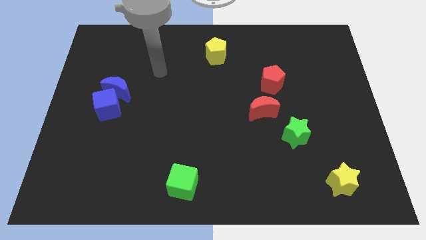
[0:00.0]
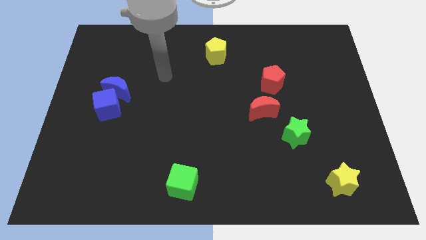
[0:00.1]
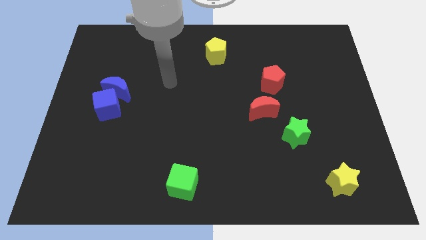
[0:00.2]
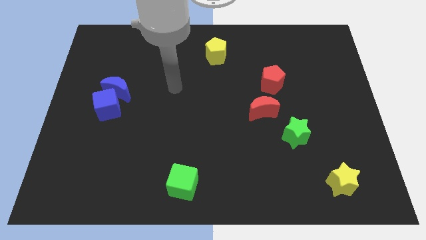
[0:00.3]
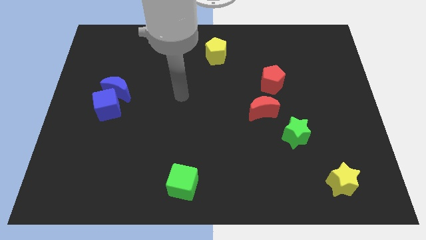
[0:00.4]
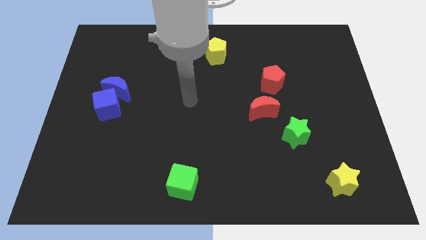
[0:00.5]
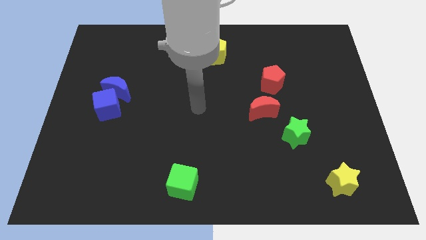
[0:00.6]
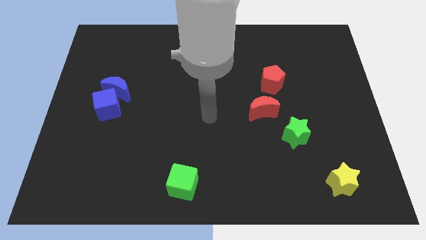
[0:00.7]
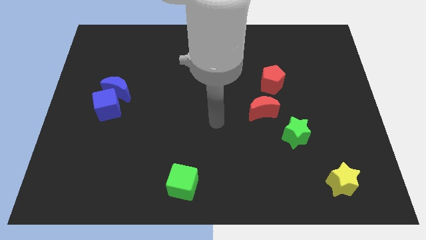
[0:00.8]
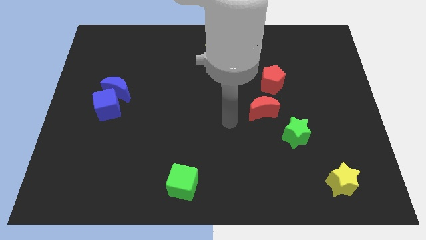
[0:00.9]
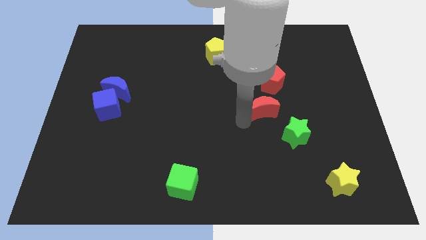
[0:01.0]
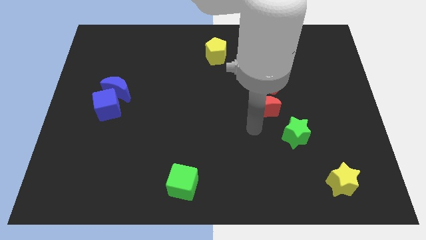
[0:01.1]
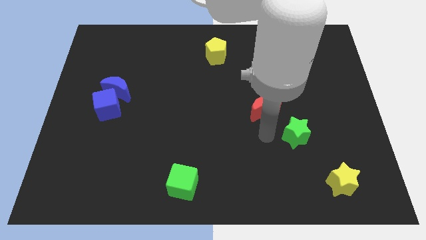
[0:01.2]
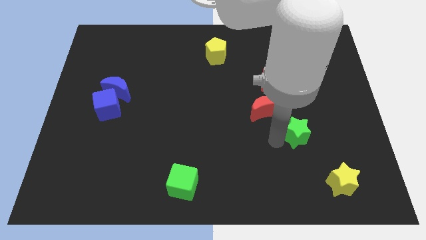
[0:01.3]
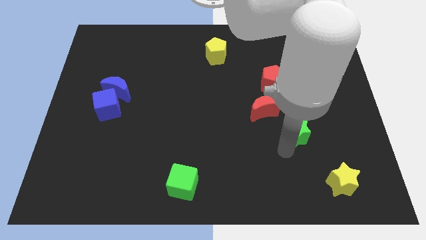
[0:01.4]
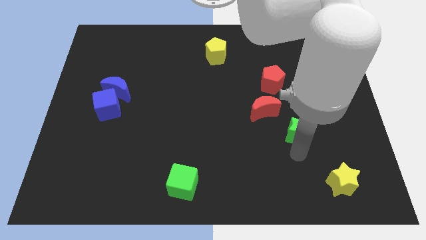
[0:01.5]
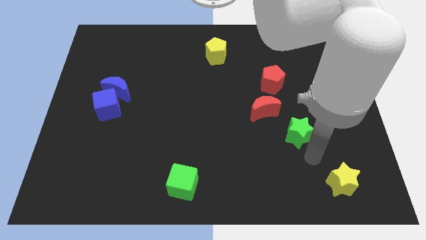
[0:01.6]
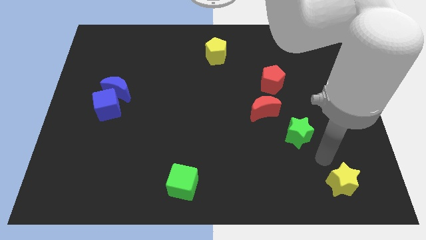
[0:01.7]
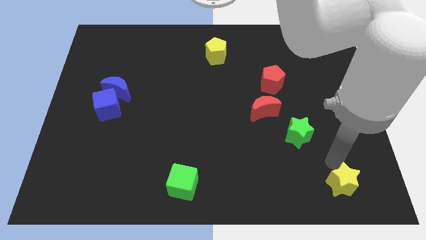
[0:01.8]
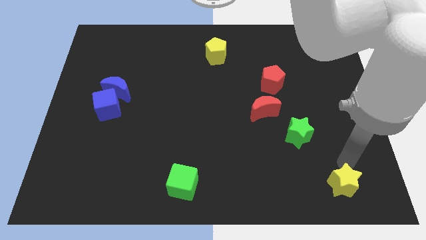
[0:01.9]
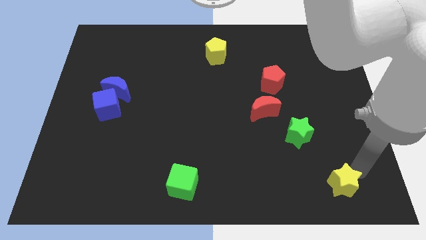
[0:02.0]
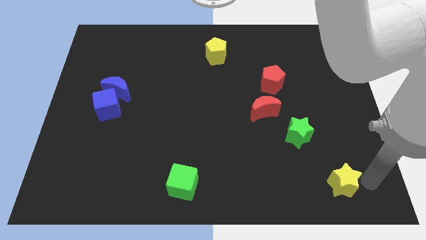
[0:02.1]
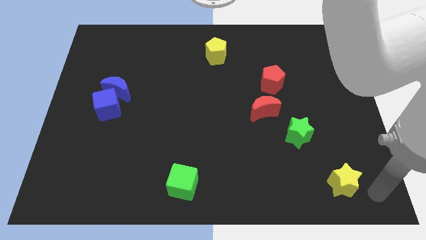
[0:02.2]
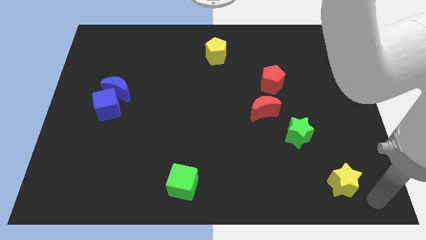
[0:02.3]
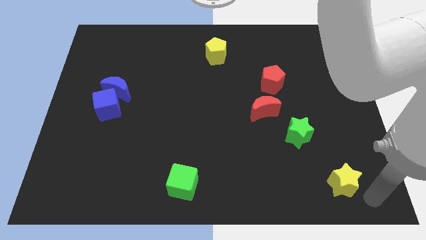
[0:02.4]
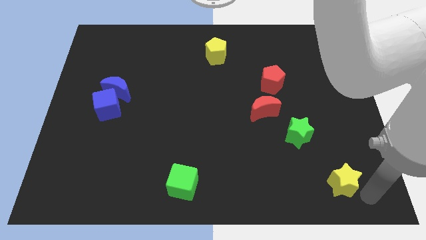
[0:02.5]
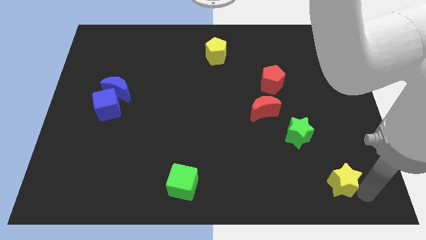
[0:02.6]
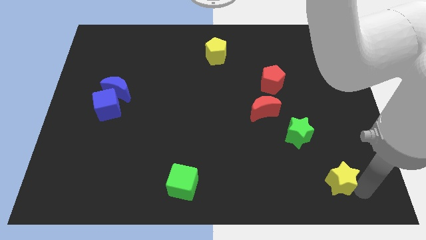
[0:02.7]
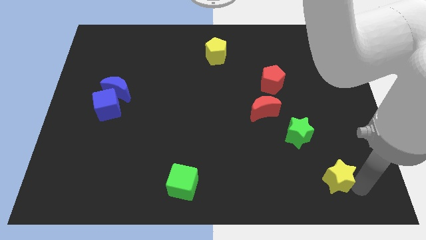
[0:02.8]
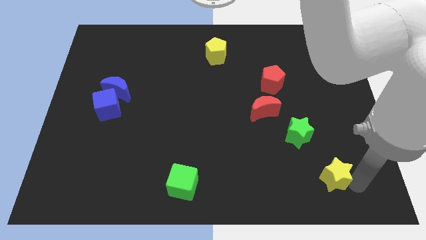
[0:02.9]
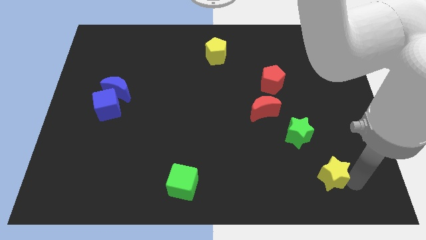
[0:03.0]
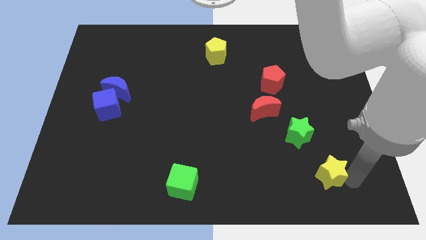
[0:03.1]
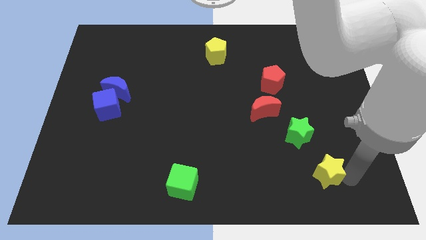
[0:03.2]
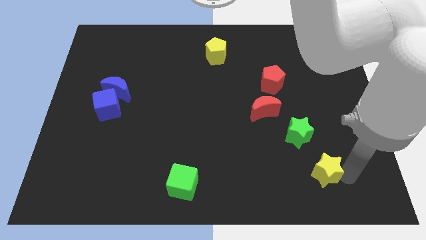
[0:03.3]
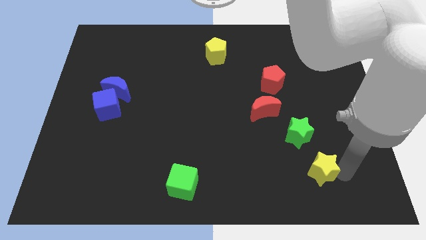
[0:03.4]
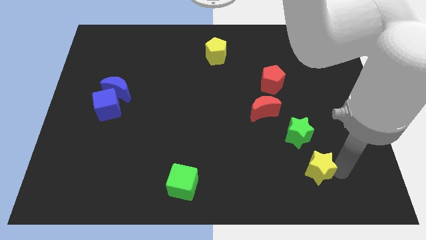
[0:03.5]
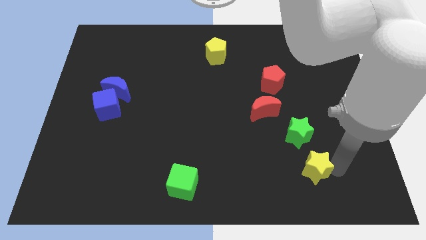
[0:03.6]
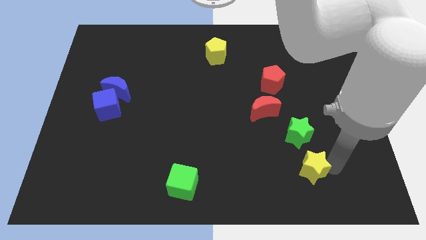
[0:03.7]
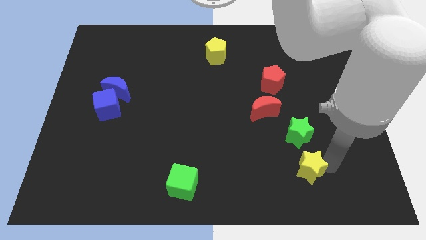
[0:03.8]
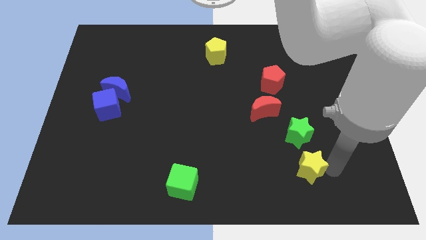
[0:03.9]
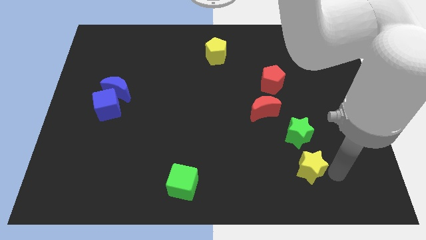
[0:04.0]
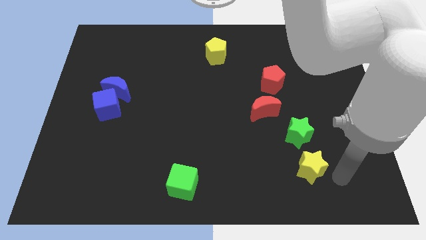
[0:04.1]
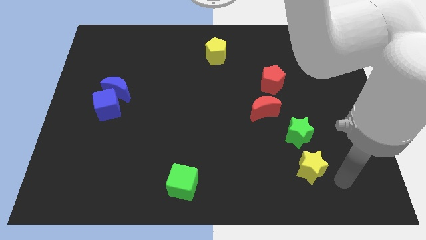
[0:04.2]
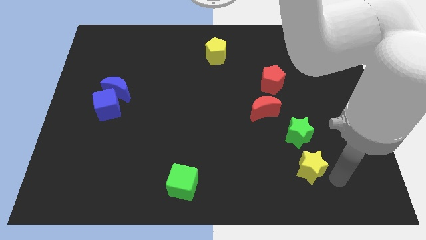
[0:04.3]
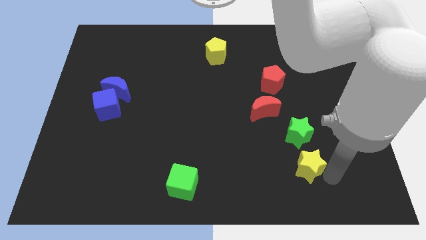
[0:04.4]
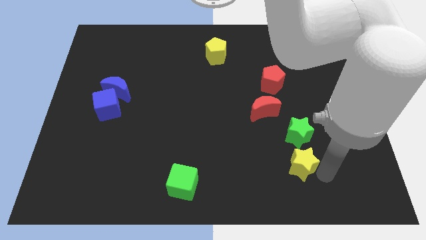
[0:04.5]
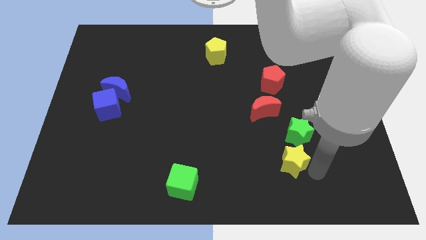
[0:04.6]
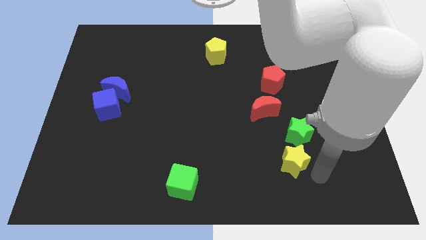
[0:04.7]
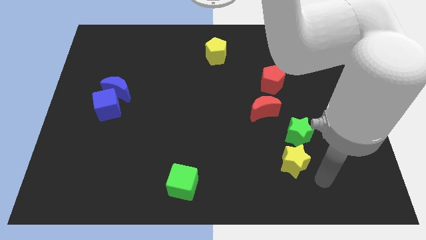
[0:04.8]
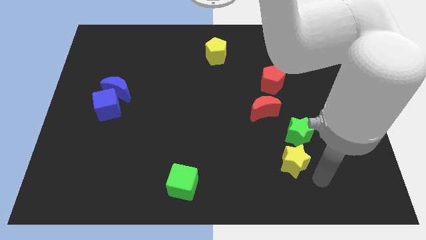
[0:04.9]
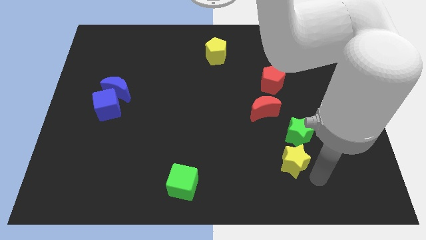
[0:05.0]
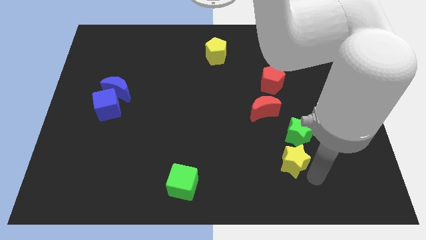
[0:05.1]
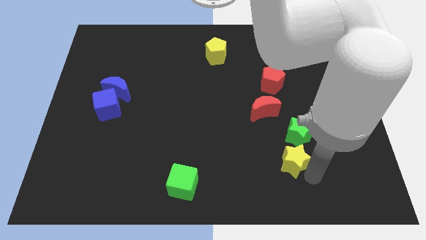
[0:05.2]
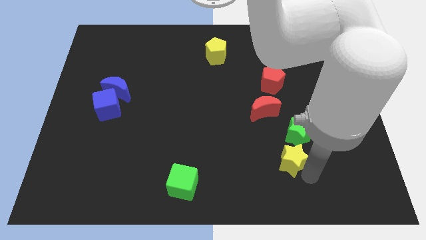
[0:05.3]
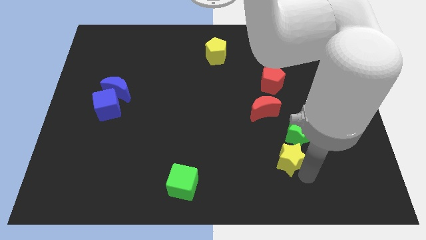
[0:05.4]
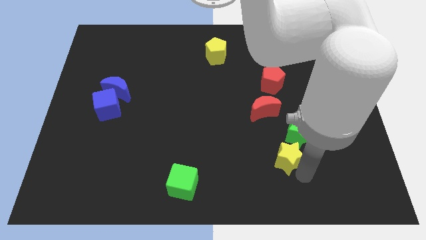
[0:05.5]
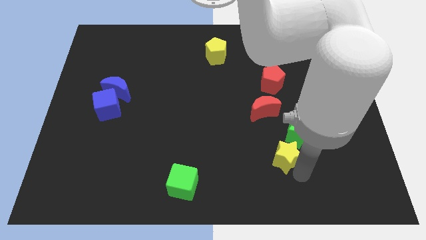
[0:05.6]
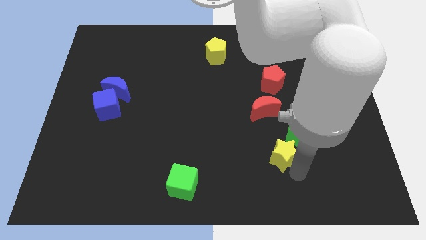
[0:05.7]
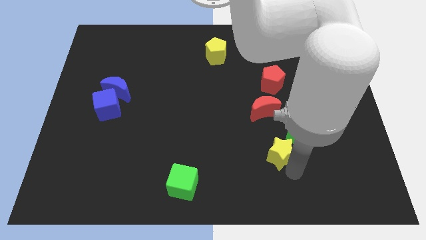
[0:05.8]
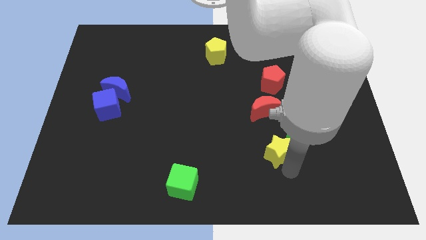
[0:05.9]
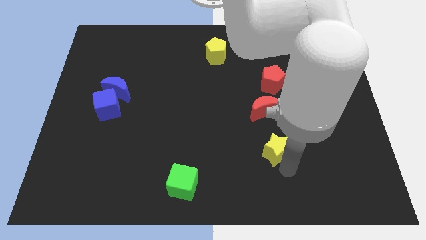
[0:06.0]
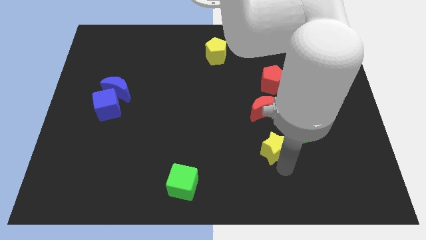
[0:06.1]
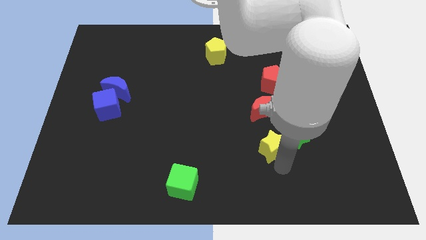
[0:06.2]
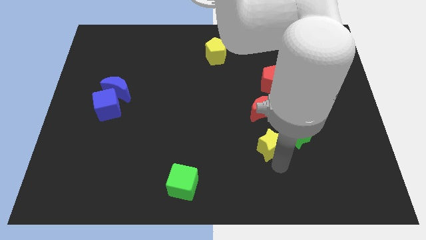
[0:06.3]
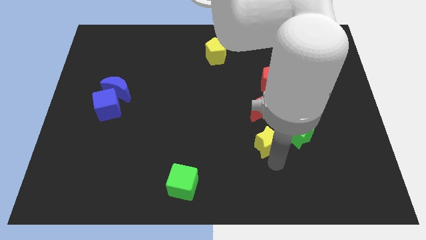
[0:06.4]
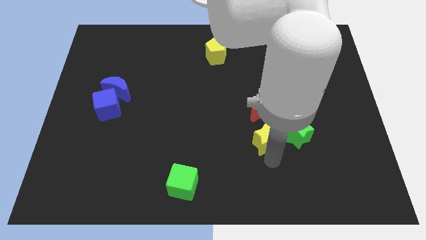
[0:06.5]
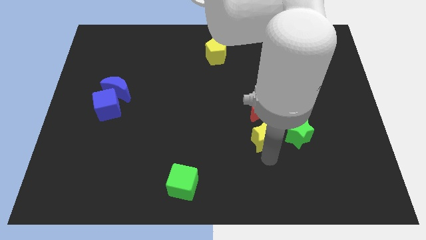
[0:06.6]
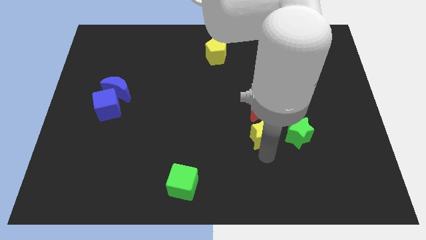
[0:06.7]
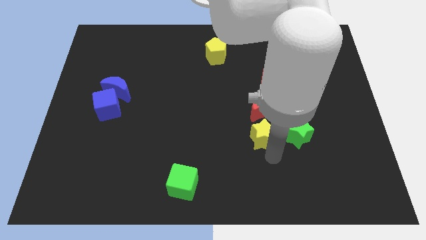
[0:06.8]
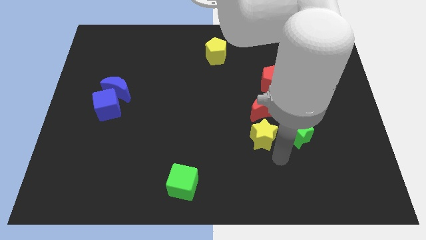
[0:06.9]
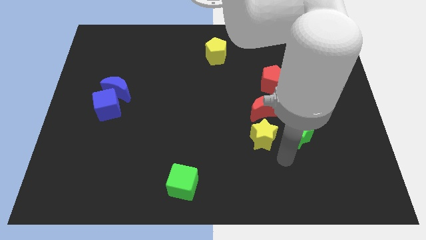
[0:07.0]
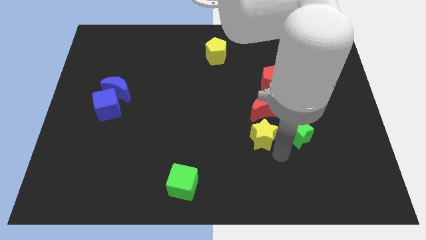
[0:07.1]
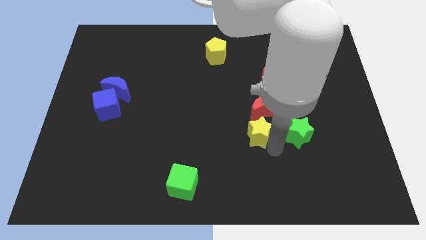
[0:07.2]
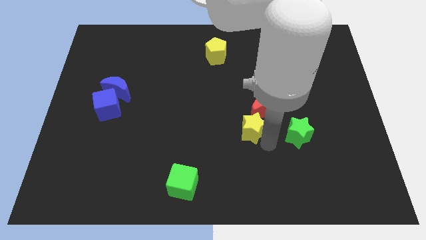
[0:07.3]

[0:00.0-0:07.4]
move the yellow star upwards and to the left

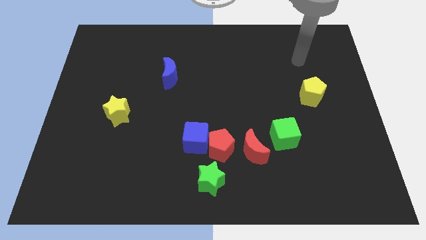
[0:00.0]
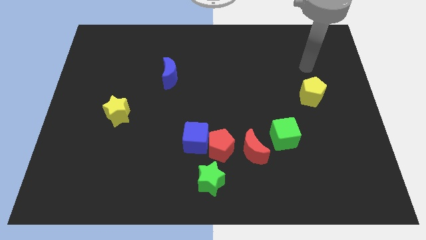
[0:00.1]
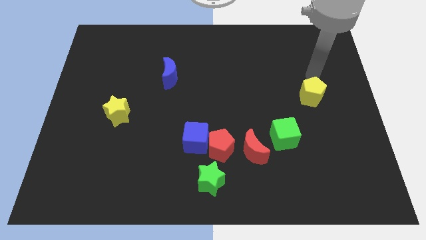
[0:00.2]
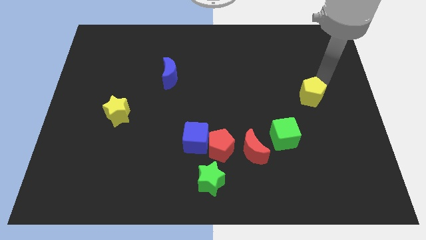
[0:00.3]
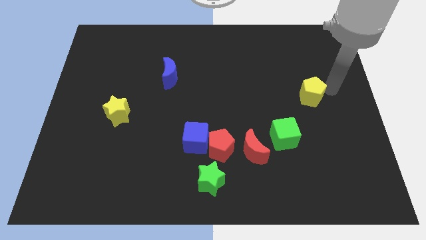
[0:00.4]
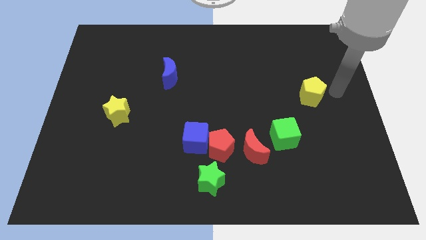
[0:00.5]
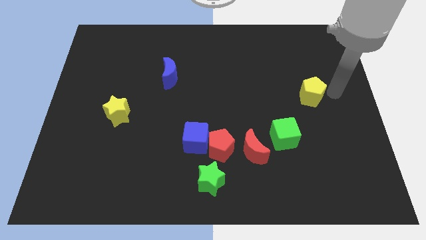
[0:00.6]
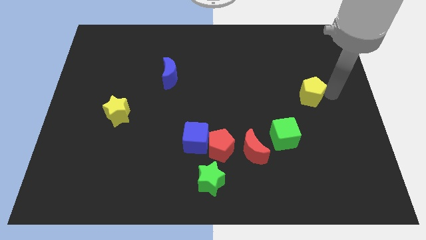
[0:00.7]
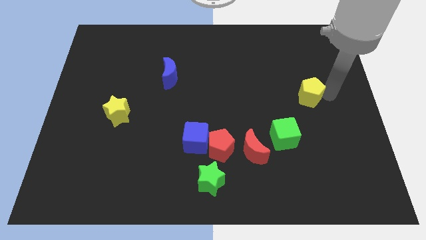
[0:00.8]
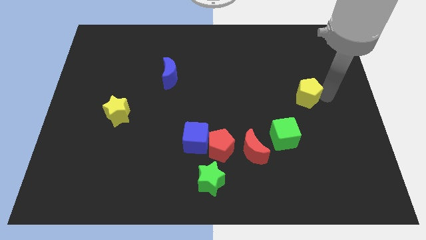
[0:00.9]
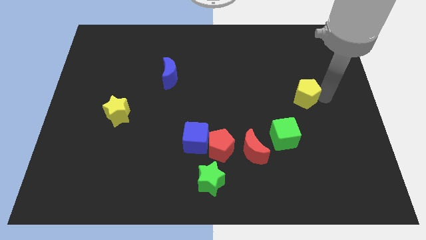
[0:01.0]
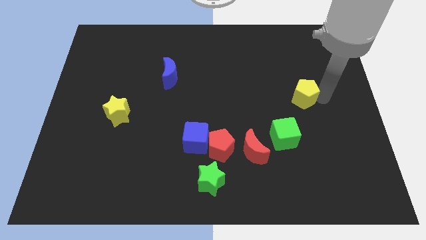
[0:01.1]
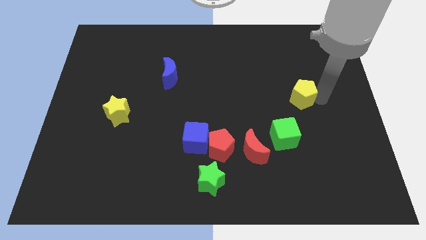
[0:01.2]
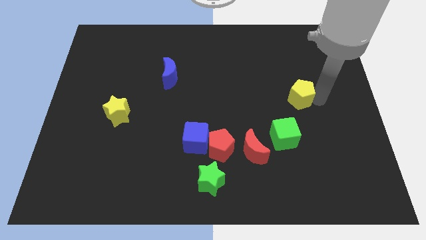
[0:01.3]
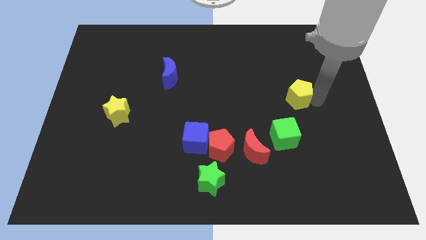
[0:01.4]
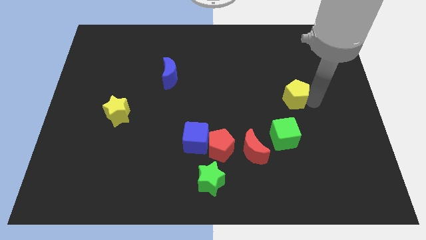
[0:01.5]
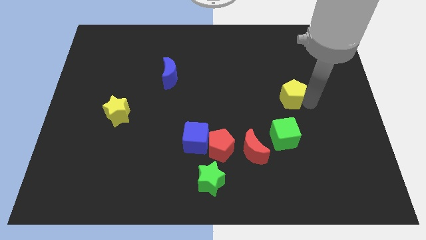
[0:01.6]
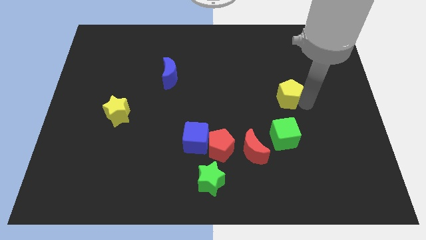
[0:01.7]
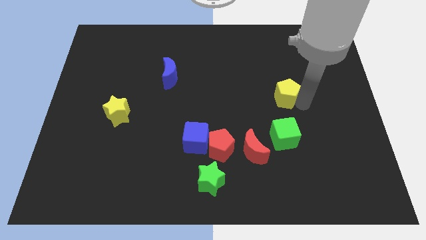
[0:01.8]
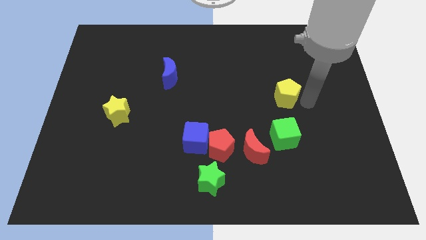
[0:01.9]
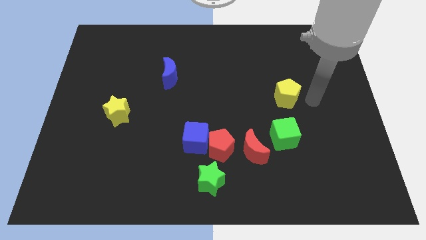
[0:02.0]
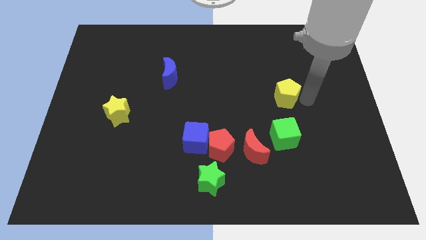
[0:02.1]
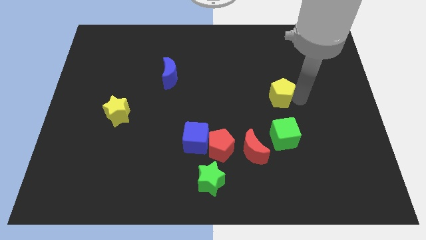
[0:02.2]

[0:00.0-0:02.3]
move the yellow pentagon slightly left
